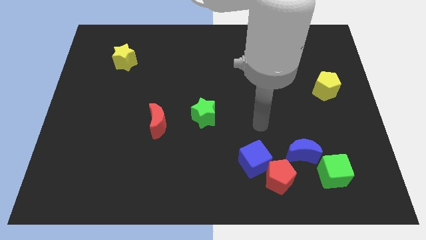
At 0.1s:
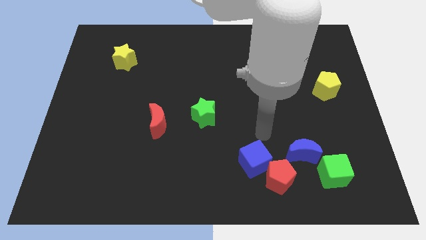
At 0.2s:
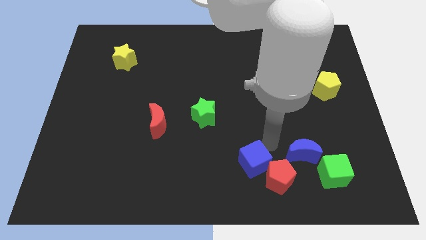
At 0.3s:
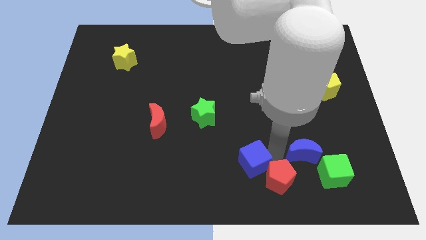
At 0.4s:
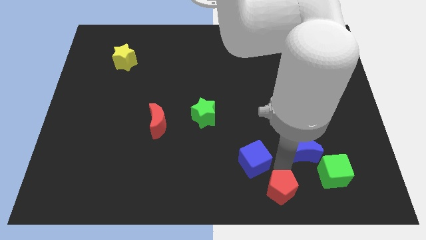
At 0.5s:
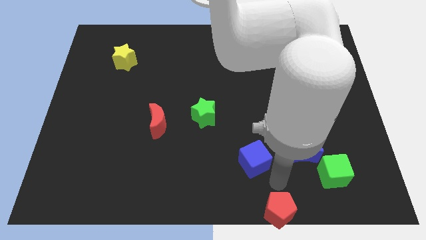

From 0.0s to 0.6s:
move the blue cube away from the red pentagon

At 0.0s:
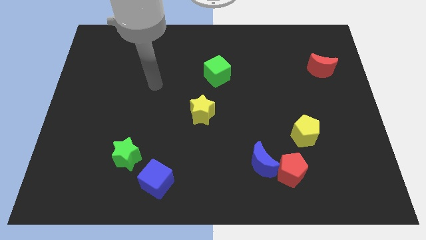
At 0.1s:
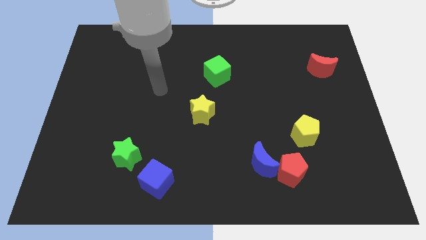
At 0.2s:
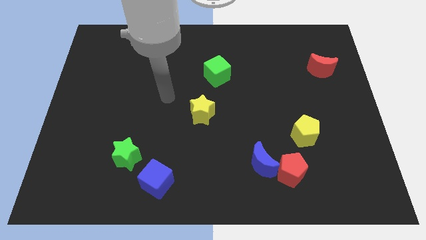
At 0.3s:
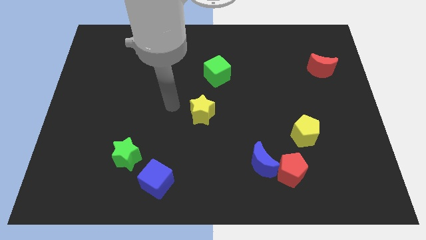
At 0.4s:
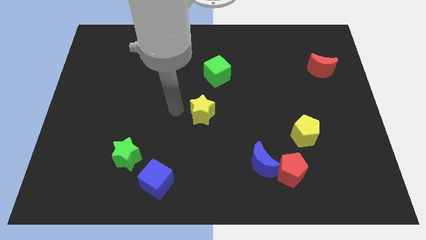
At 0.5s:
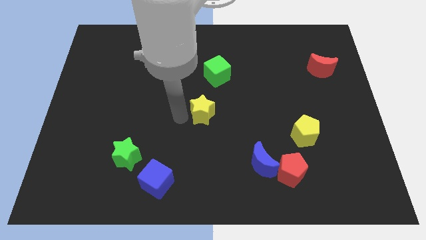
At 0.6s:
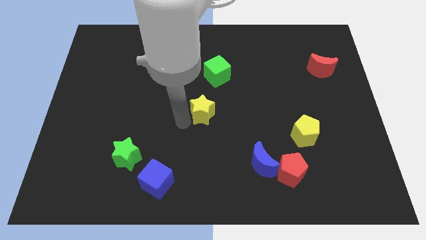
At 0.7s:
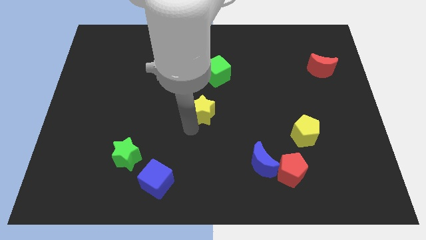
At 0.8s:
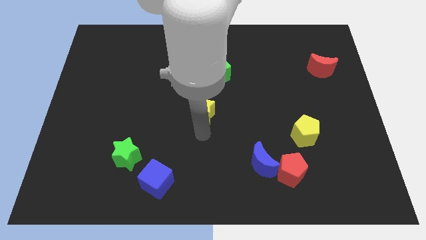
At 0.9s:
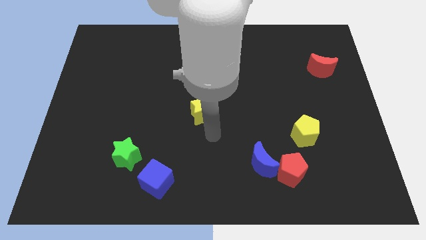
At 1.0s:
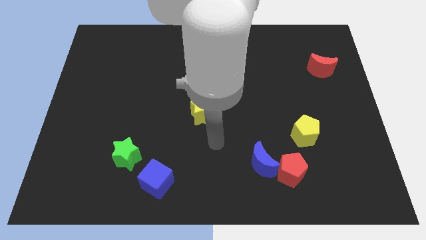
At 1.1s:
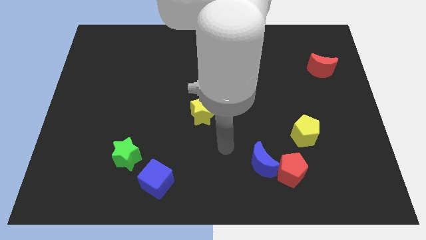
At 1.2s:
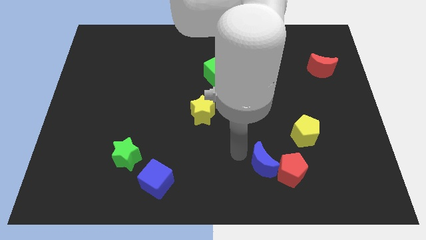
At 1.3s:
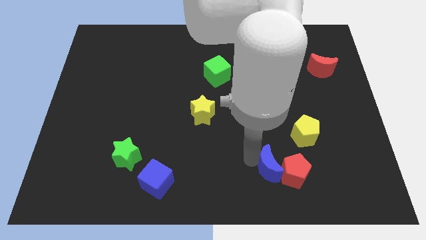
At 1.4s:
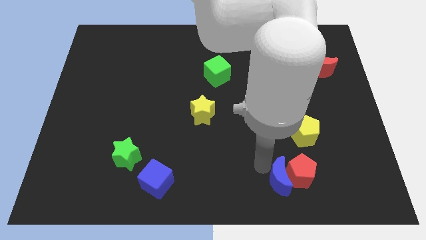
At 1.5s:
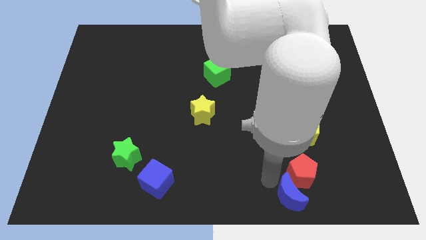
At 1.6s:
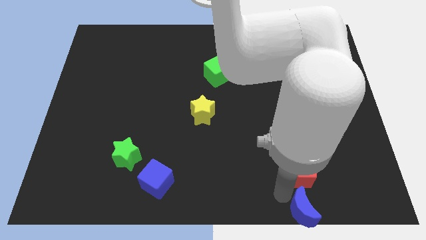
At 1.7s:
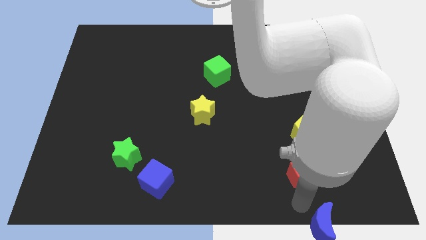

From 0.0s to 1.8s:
move the red pentagon away from the blue moon

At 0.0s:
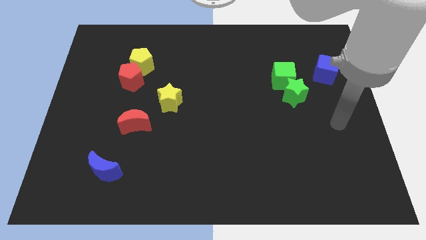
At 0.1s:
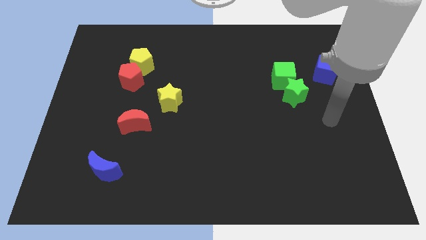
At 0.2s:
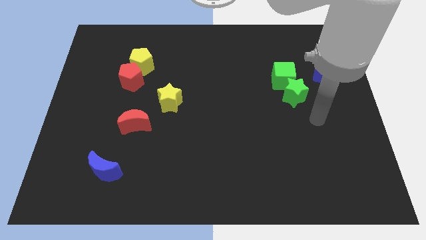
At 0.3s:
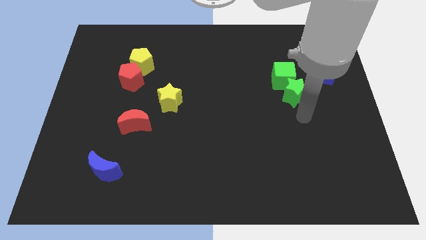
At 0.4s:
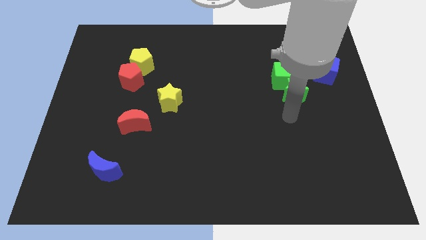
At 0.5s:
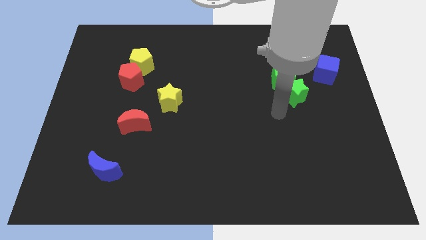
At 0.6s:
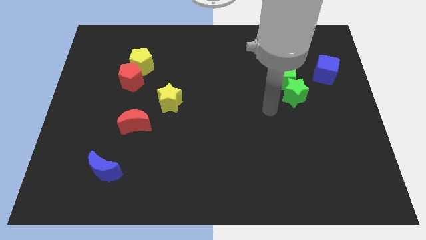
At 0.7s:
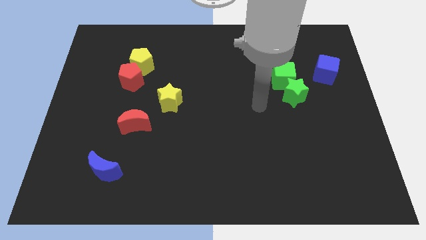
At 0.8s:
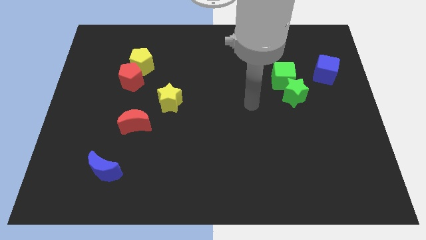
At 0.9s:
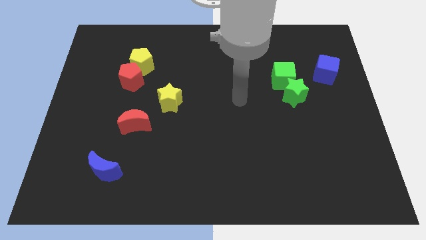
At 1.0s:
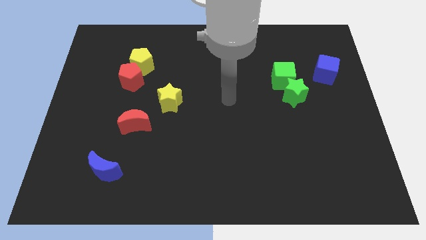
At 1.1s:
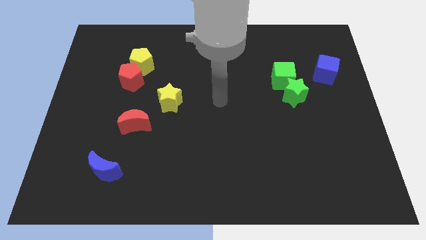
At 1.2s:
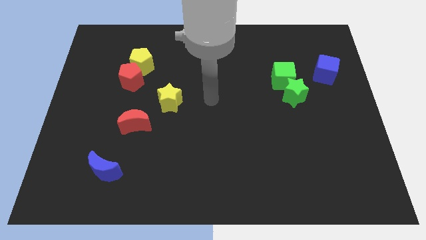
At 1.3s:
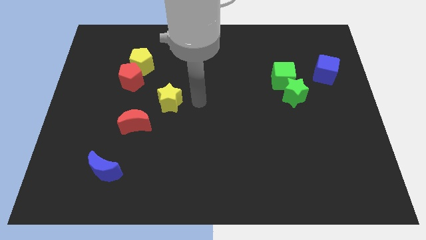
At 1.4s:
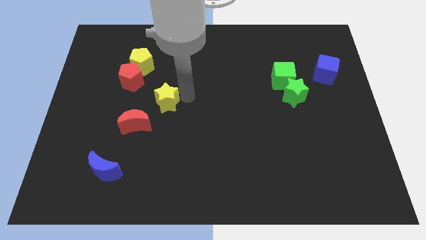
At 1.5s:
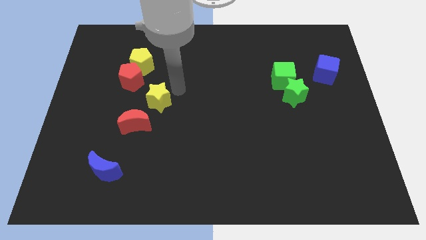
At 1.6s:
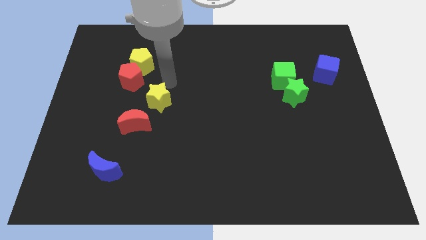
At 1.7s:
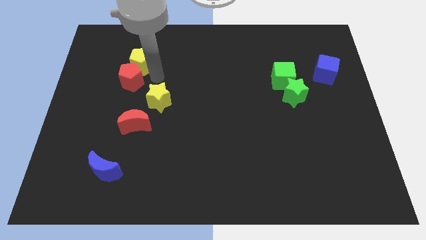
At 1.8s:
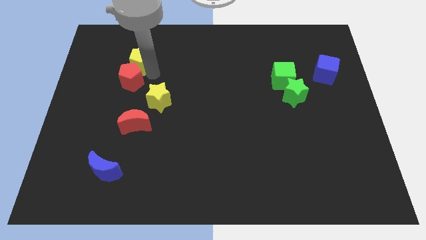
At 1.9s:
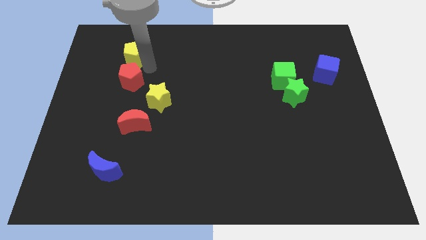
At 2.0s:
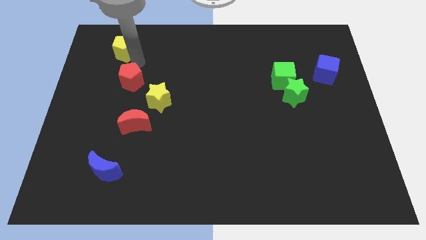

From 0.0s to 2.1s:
pull the red pentagon apart from the yellow pentagon

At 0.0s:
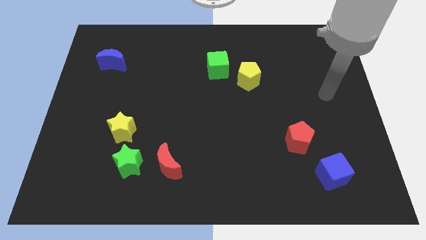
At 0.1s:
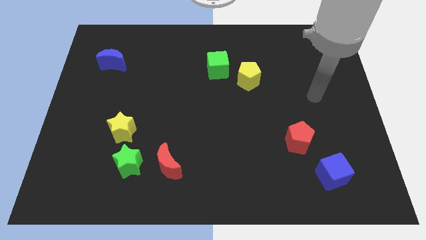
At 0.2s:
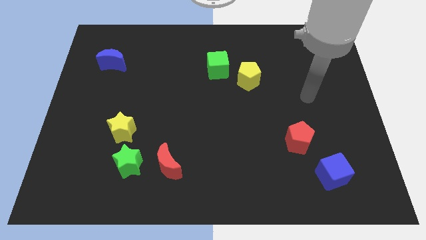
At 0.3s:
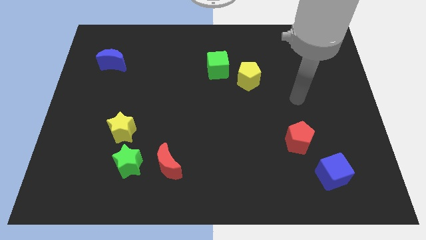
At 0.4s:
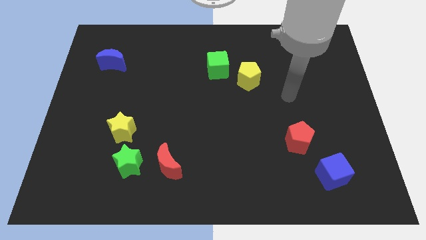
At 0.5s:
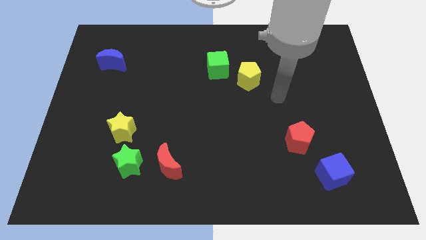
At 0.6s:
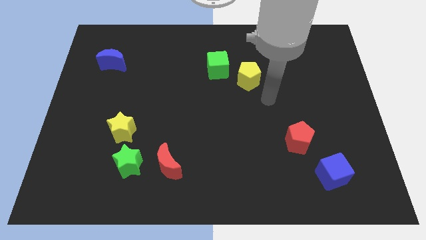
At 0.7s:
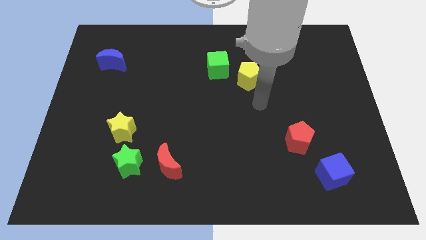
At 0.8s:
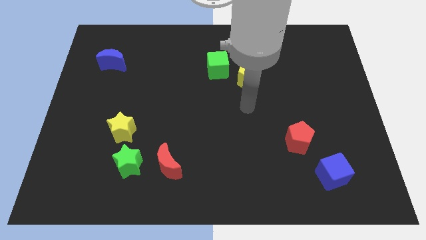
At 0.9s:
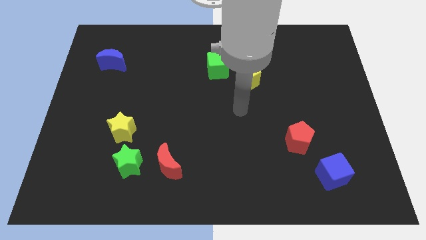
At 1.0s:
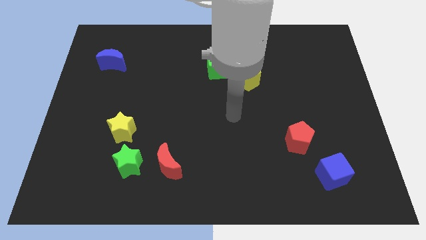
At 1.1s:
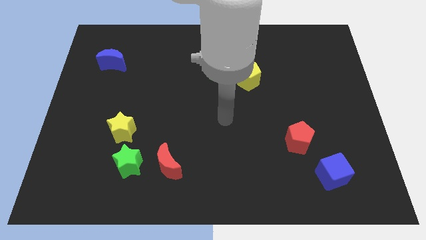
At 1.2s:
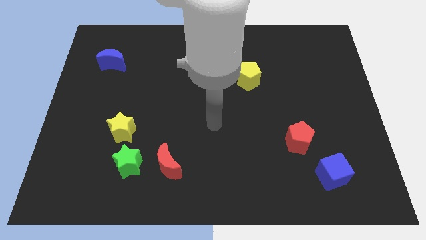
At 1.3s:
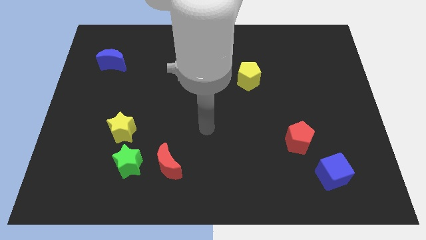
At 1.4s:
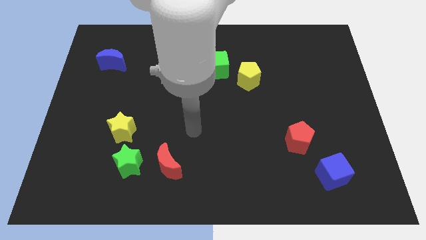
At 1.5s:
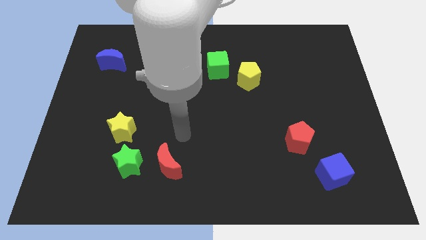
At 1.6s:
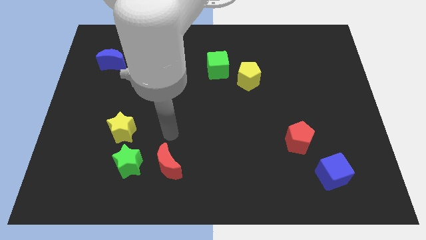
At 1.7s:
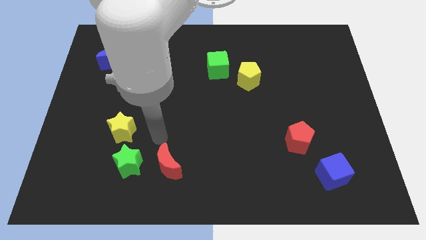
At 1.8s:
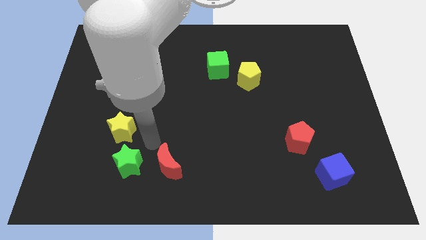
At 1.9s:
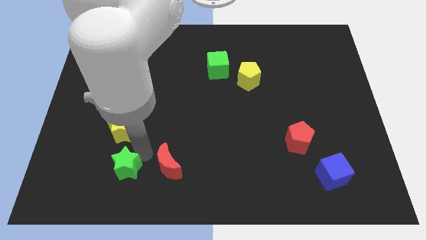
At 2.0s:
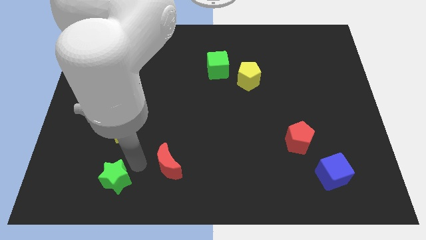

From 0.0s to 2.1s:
separate the red moon from the green star

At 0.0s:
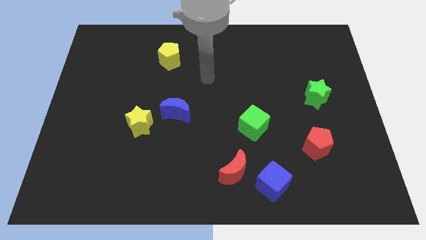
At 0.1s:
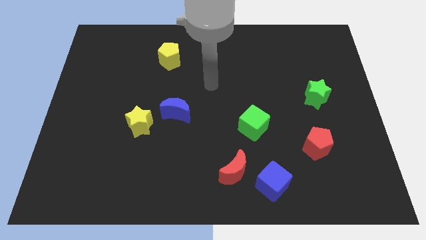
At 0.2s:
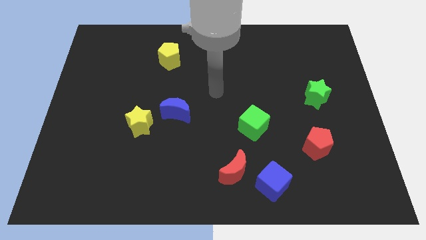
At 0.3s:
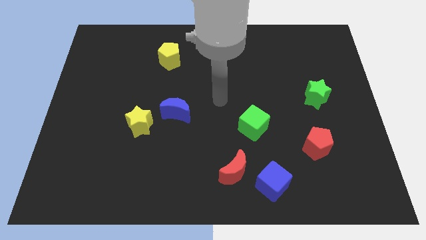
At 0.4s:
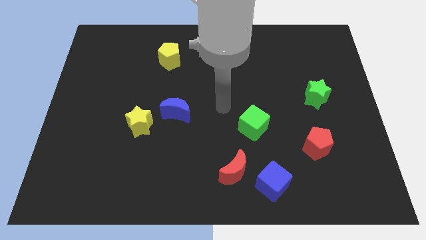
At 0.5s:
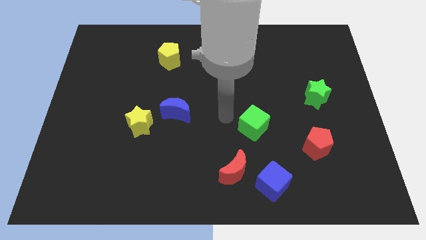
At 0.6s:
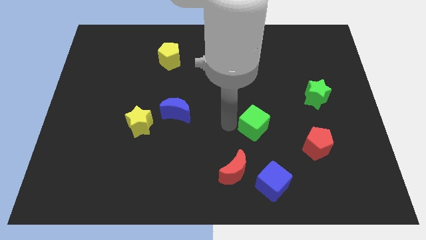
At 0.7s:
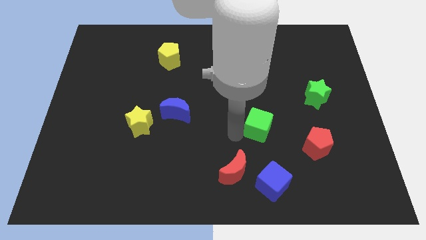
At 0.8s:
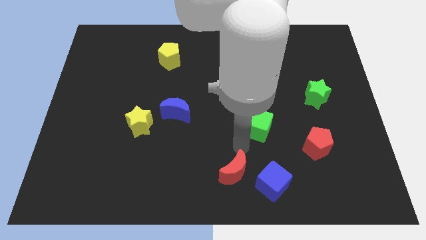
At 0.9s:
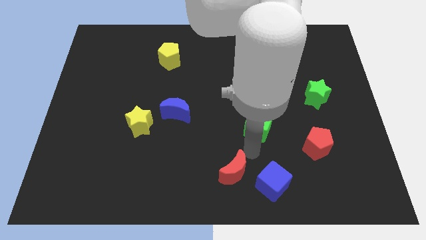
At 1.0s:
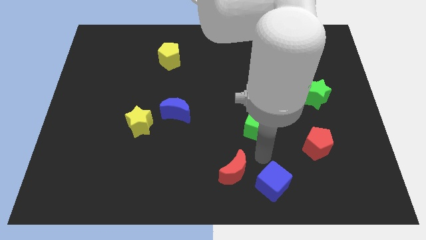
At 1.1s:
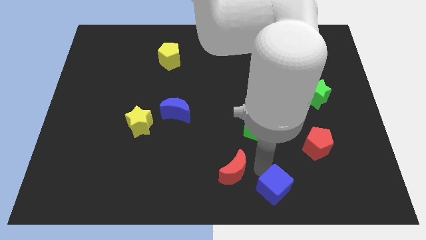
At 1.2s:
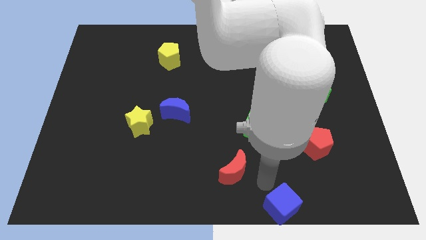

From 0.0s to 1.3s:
move the red moon away from the blue cube

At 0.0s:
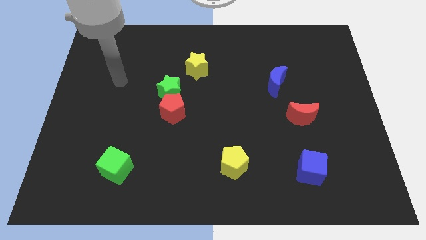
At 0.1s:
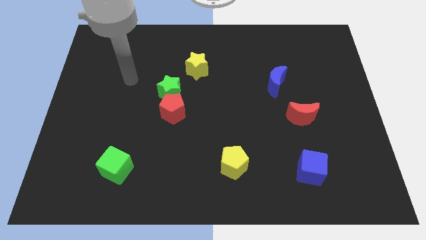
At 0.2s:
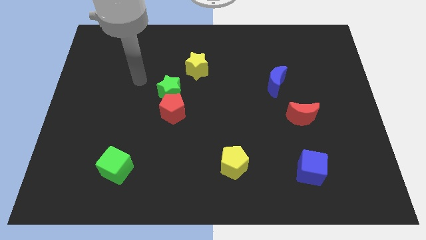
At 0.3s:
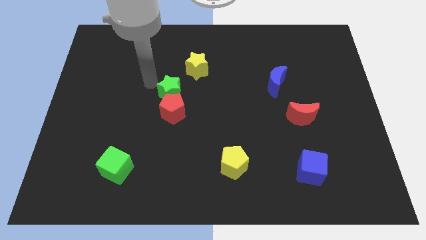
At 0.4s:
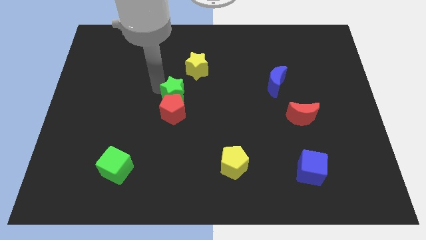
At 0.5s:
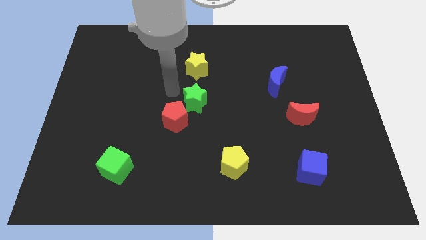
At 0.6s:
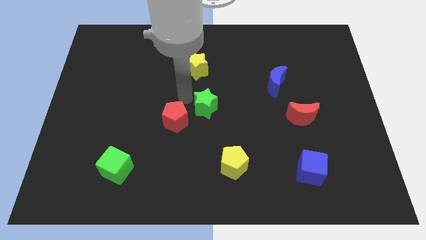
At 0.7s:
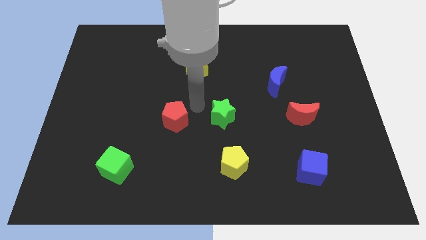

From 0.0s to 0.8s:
separate the red pentagon from the green star

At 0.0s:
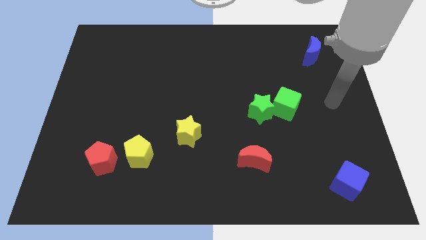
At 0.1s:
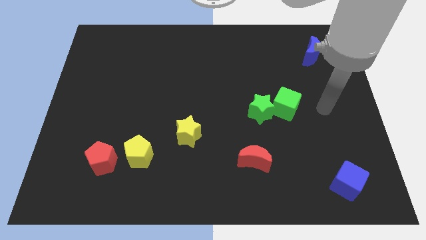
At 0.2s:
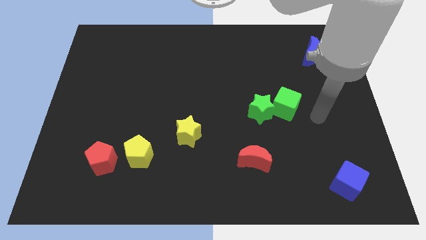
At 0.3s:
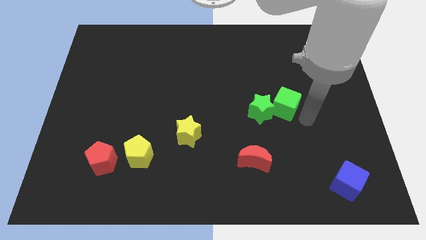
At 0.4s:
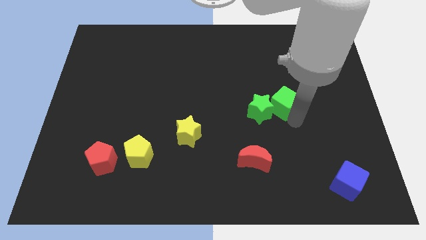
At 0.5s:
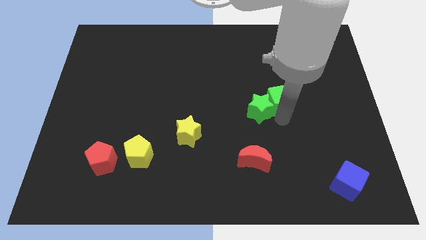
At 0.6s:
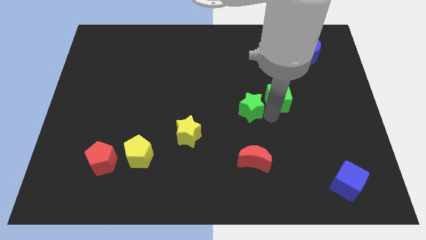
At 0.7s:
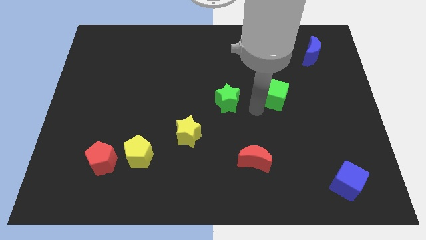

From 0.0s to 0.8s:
move the green cube away from the green star
